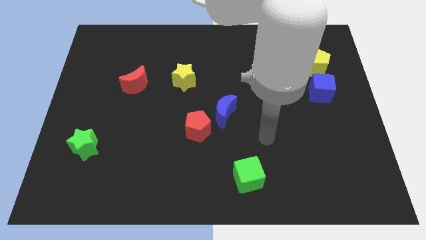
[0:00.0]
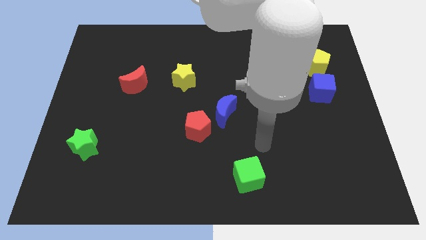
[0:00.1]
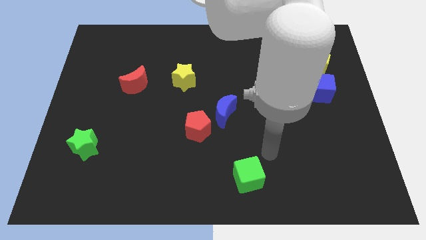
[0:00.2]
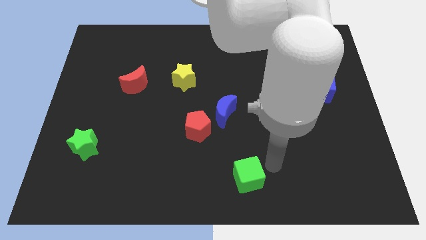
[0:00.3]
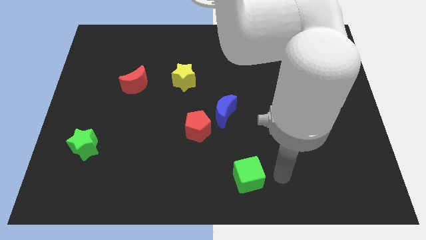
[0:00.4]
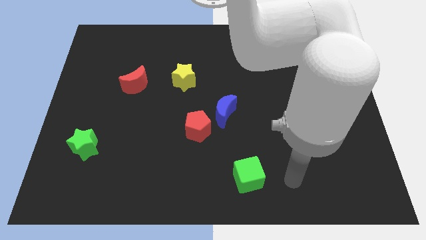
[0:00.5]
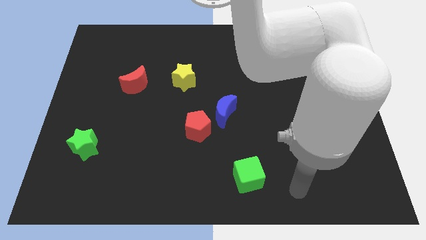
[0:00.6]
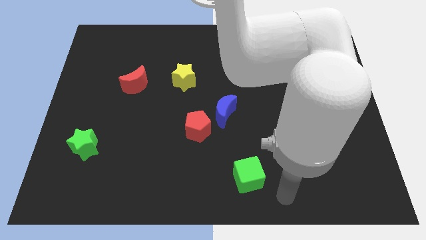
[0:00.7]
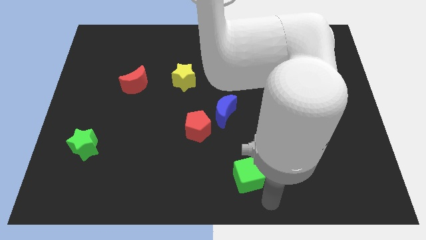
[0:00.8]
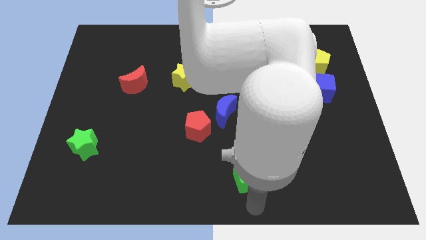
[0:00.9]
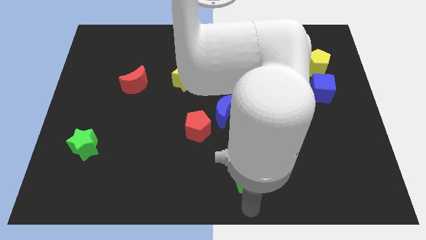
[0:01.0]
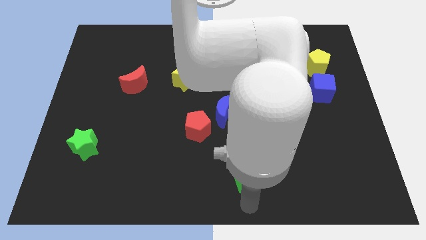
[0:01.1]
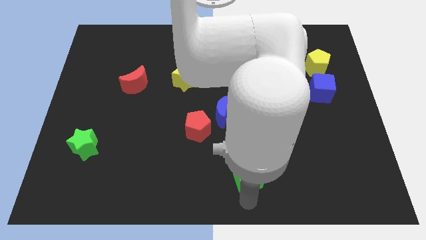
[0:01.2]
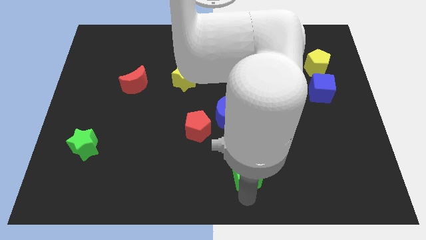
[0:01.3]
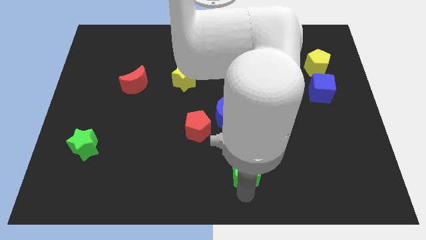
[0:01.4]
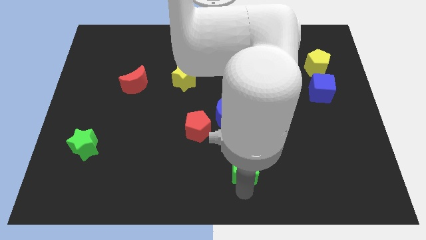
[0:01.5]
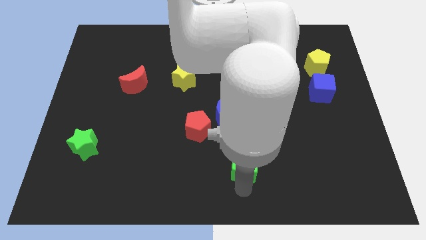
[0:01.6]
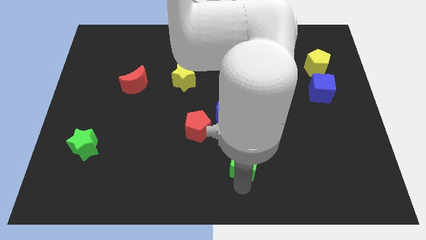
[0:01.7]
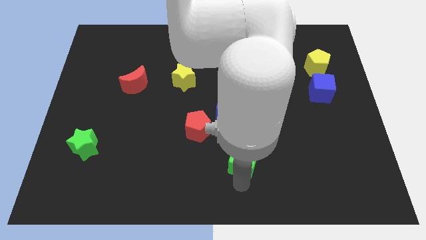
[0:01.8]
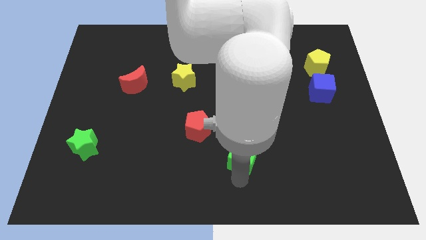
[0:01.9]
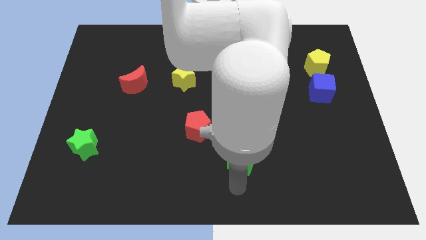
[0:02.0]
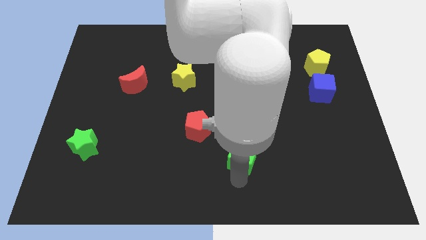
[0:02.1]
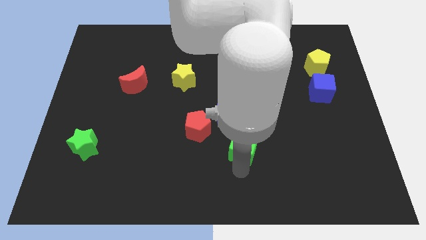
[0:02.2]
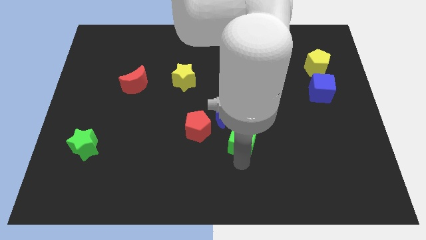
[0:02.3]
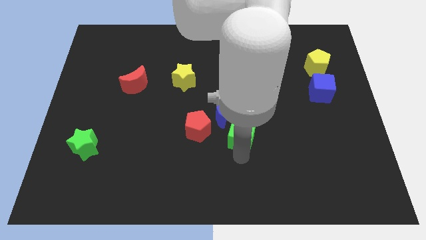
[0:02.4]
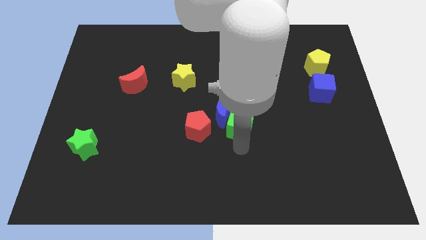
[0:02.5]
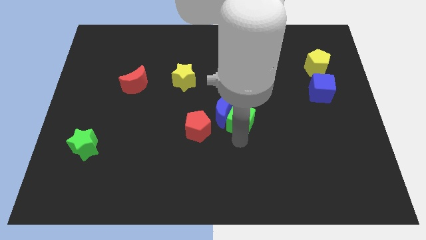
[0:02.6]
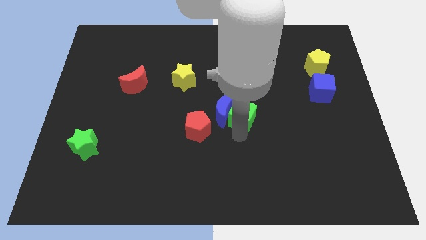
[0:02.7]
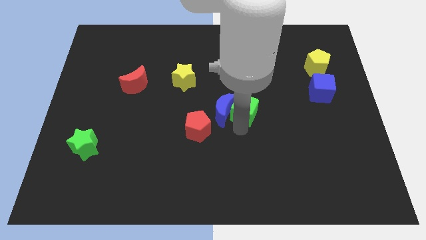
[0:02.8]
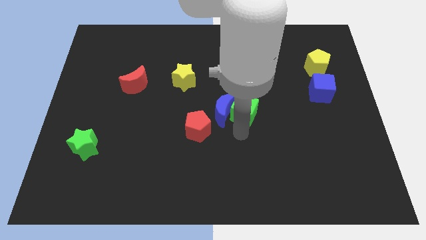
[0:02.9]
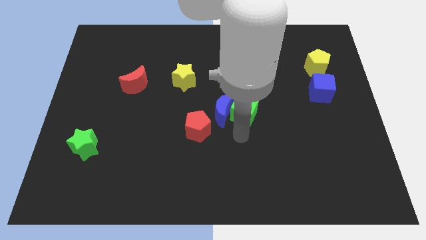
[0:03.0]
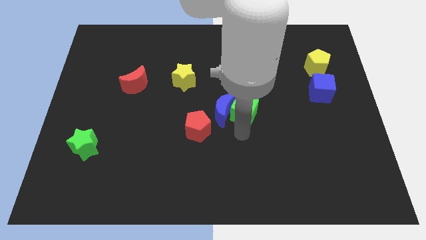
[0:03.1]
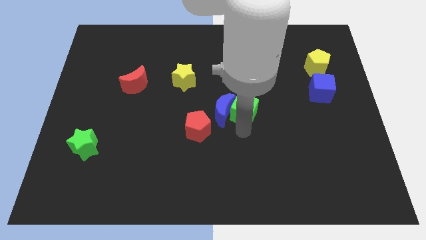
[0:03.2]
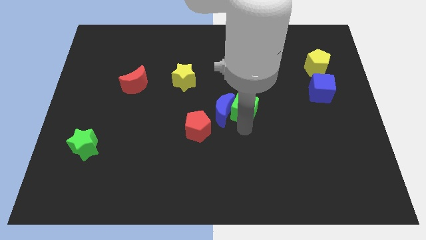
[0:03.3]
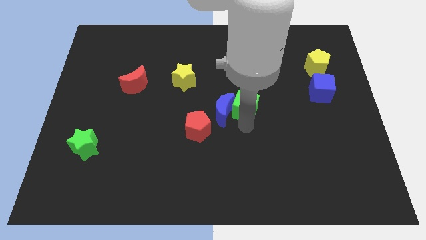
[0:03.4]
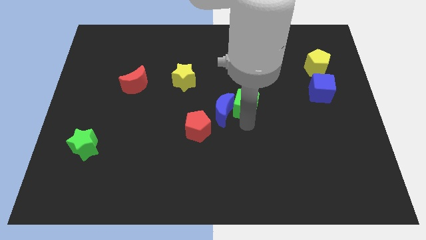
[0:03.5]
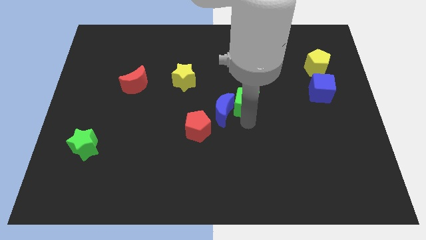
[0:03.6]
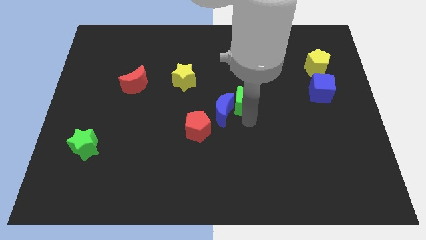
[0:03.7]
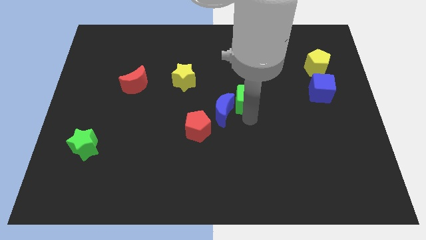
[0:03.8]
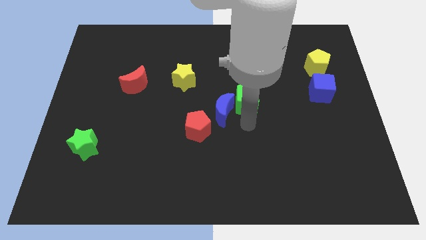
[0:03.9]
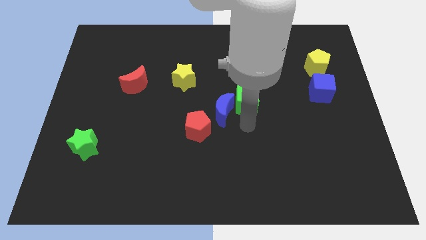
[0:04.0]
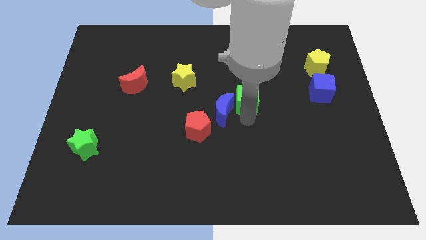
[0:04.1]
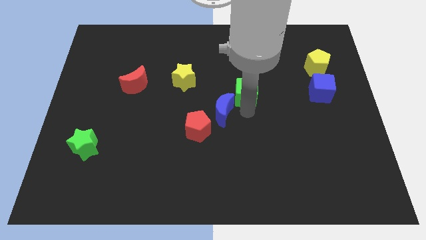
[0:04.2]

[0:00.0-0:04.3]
slide the green cube upwards

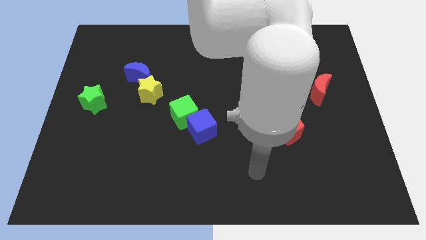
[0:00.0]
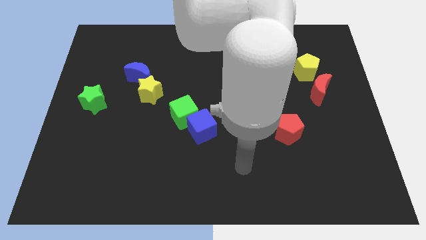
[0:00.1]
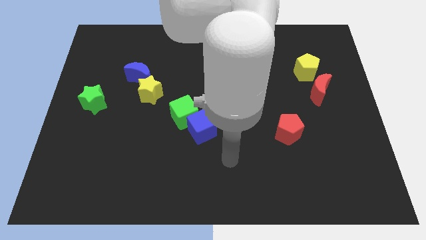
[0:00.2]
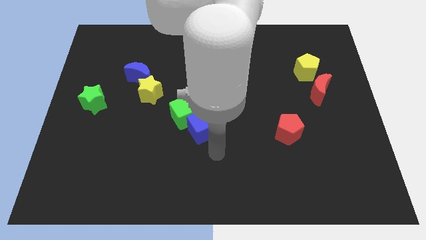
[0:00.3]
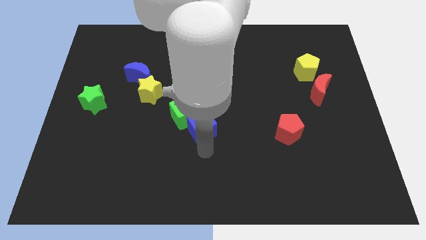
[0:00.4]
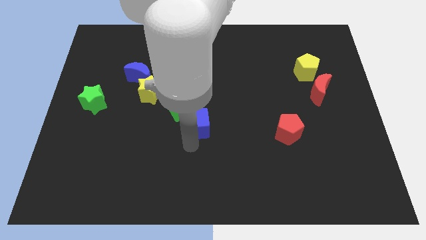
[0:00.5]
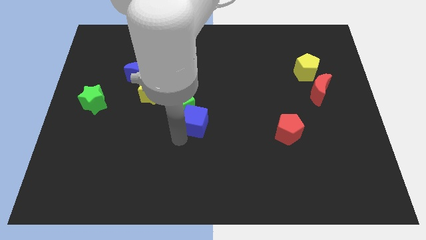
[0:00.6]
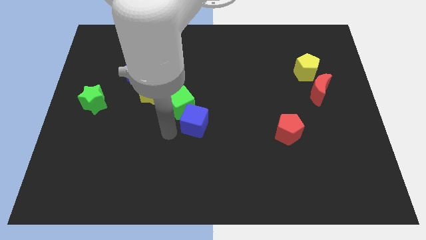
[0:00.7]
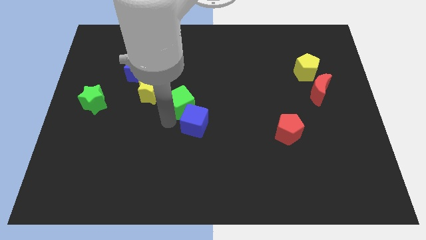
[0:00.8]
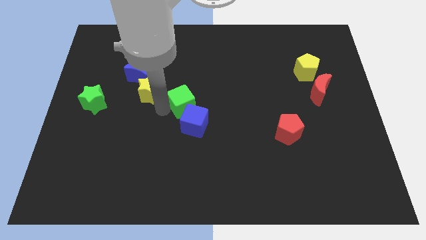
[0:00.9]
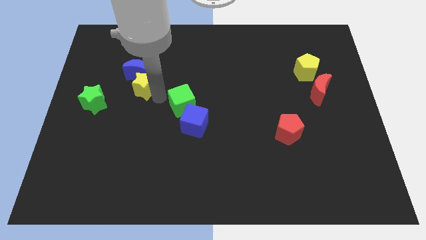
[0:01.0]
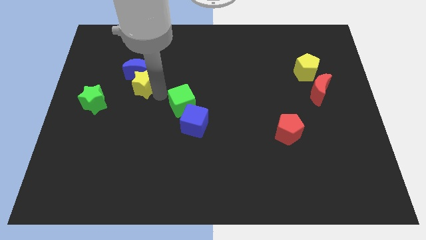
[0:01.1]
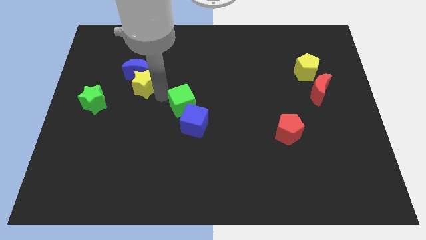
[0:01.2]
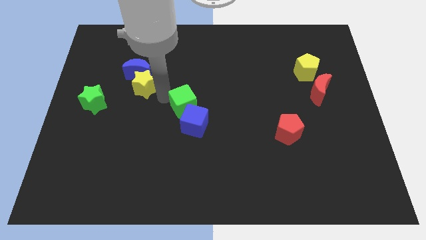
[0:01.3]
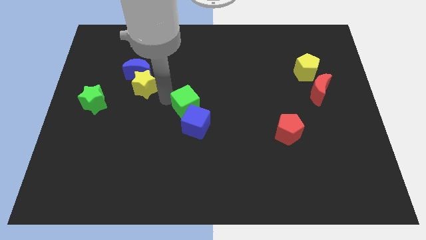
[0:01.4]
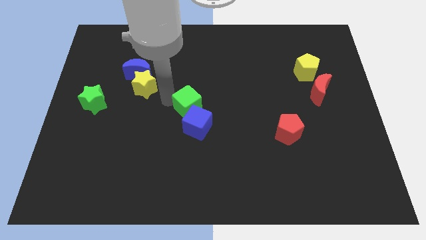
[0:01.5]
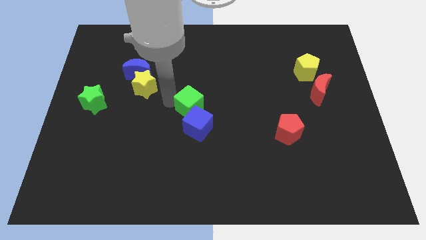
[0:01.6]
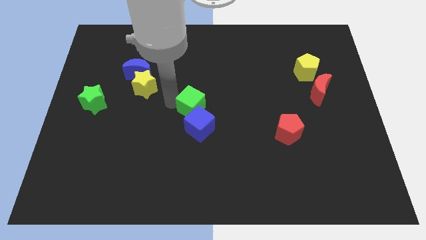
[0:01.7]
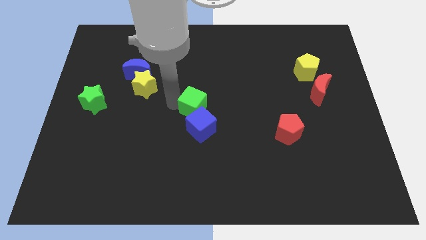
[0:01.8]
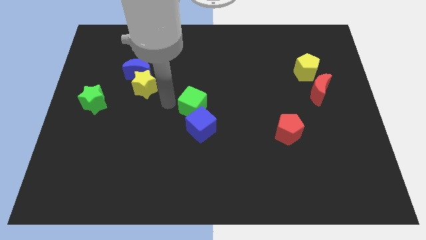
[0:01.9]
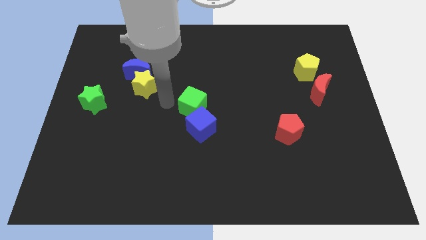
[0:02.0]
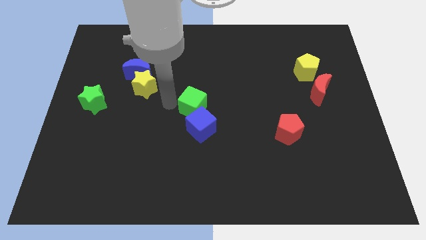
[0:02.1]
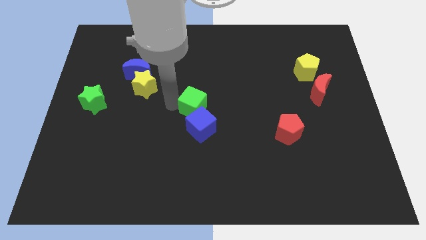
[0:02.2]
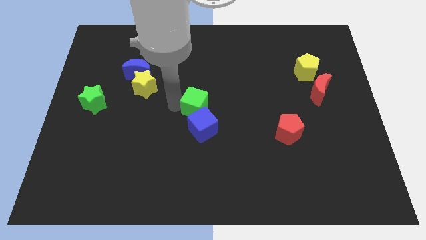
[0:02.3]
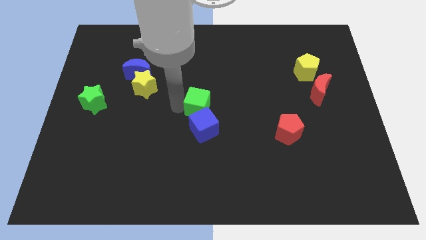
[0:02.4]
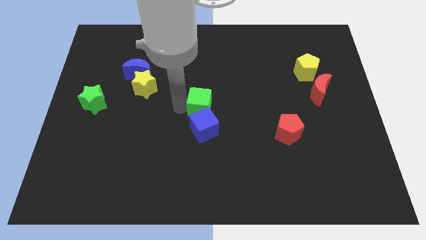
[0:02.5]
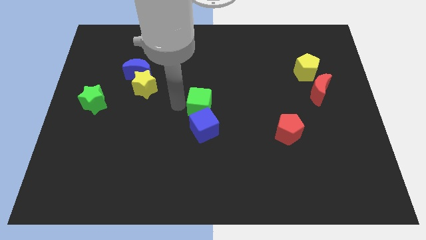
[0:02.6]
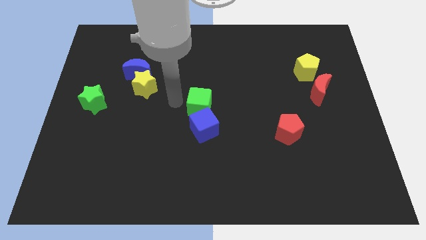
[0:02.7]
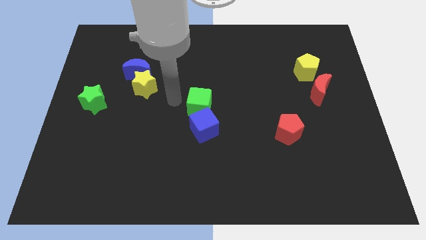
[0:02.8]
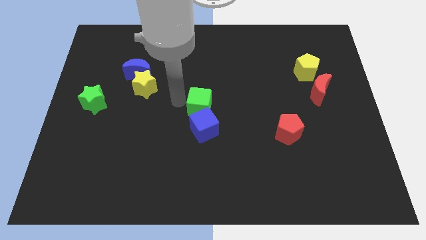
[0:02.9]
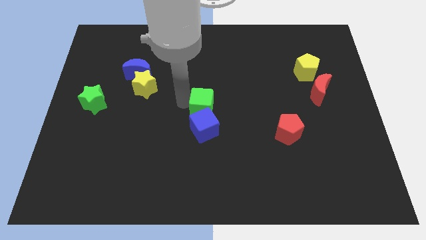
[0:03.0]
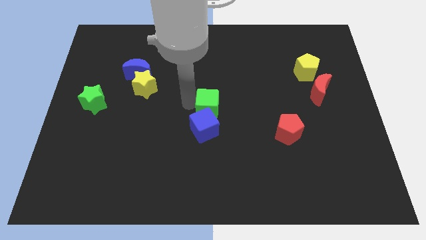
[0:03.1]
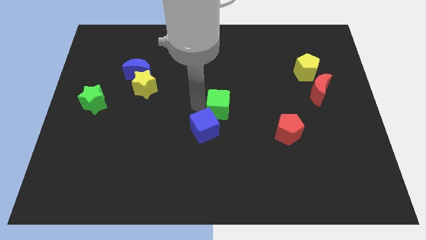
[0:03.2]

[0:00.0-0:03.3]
slide the green cube to the right somewhat

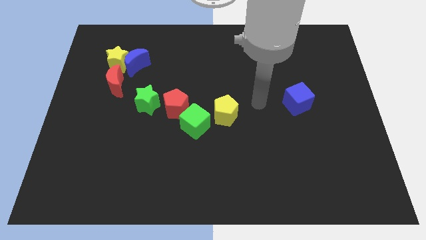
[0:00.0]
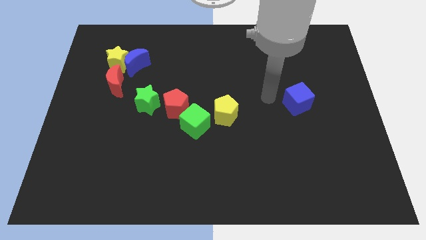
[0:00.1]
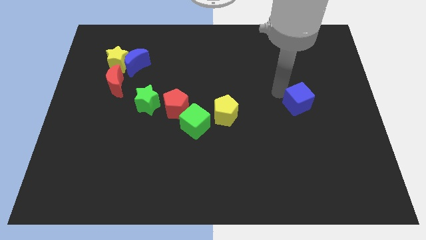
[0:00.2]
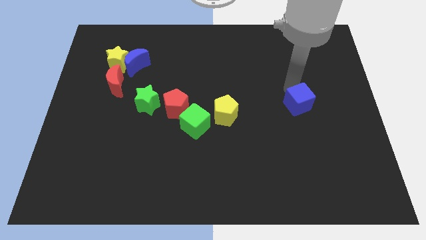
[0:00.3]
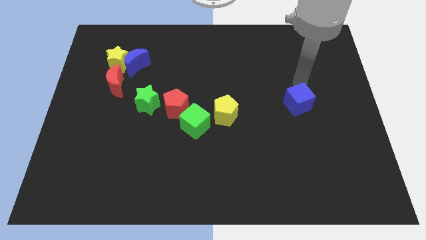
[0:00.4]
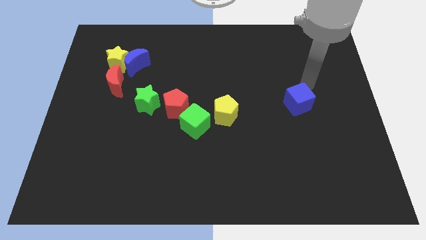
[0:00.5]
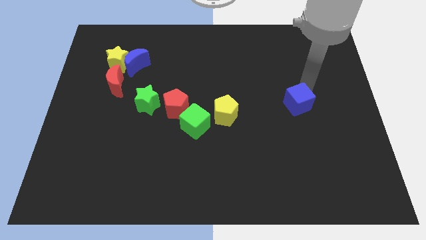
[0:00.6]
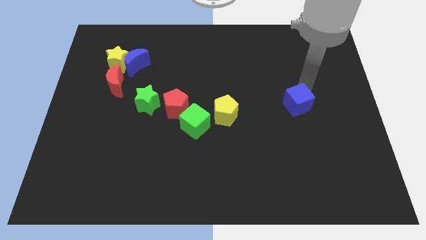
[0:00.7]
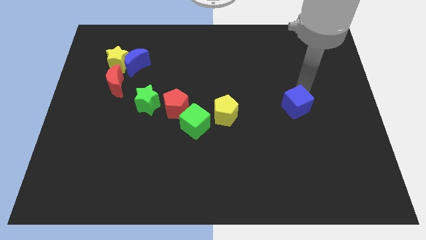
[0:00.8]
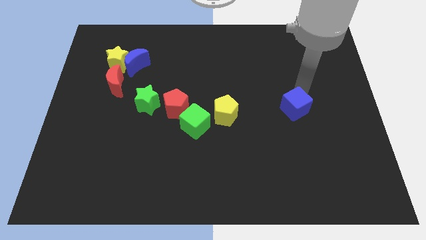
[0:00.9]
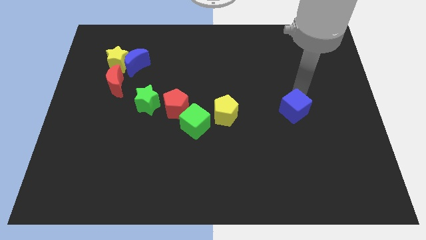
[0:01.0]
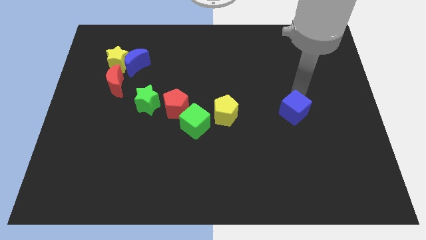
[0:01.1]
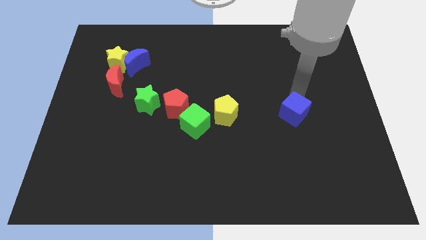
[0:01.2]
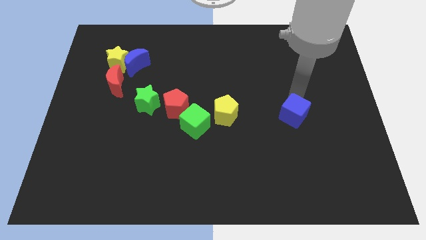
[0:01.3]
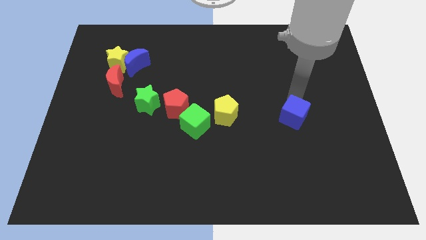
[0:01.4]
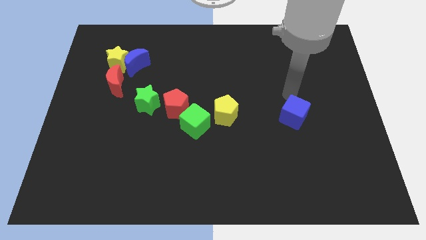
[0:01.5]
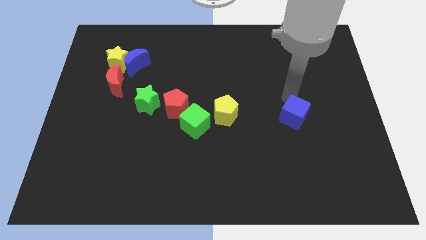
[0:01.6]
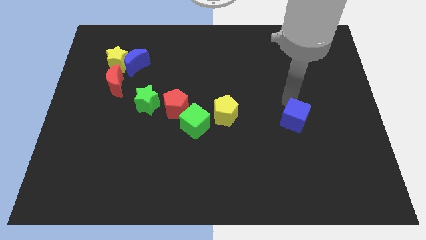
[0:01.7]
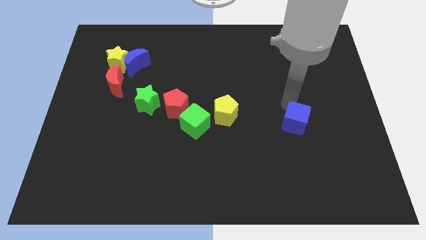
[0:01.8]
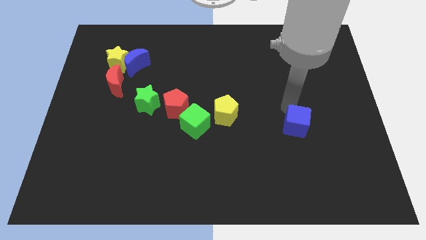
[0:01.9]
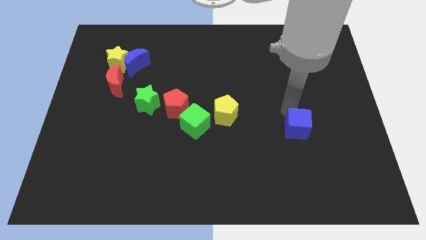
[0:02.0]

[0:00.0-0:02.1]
slide the blue cube slightly down
